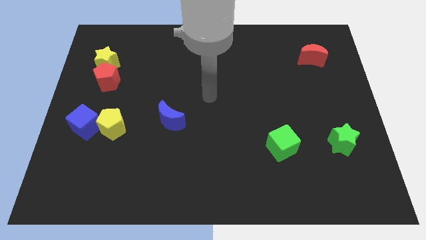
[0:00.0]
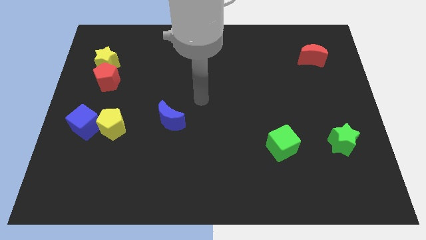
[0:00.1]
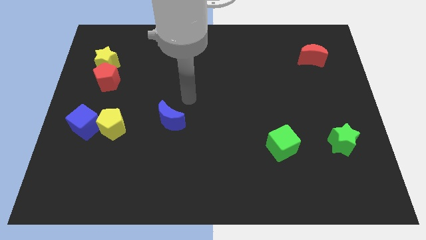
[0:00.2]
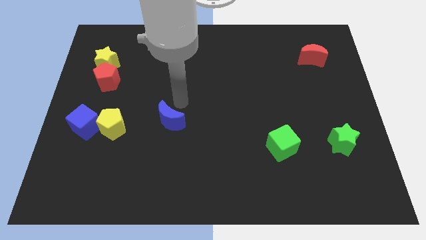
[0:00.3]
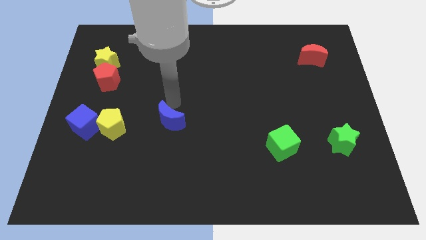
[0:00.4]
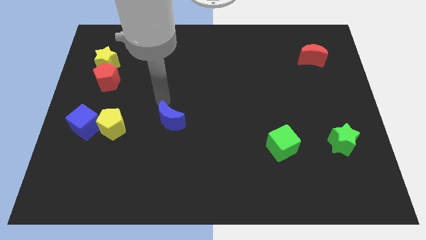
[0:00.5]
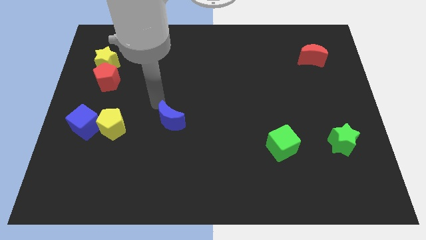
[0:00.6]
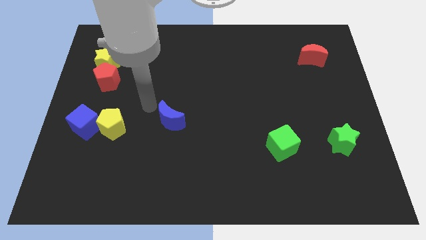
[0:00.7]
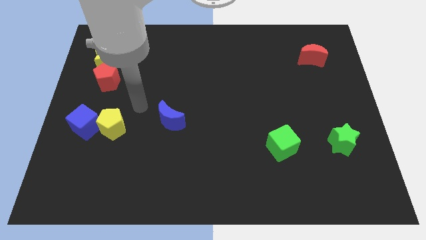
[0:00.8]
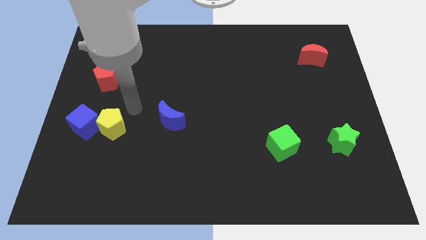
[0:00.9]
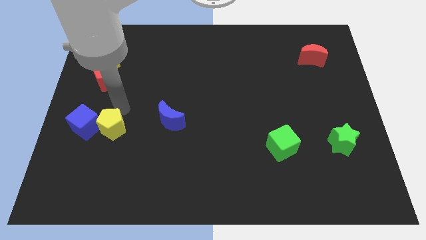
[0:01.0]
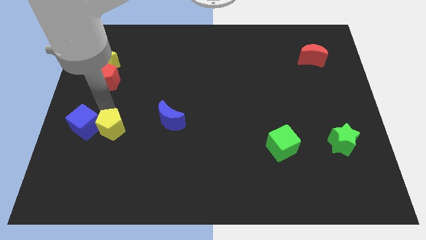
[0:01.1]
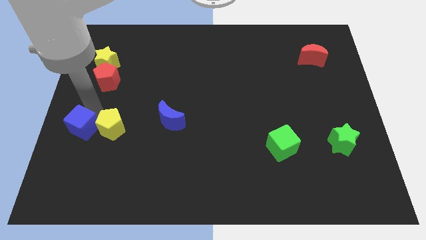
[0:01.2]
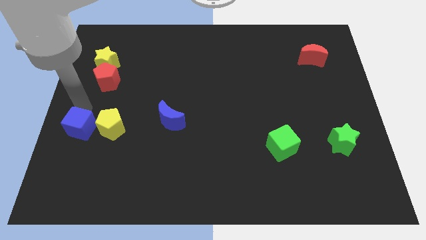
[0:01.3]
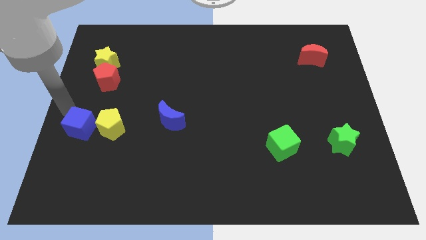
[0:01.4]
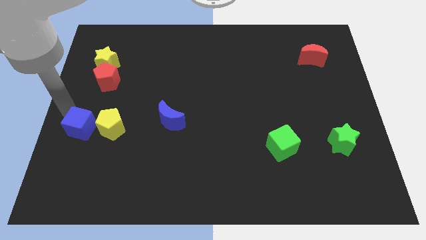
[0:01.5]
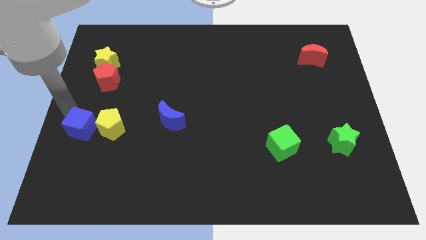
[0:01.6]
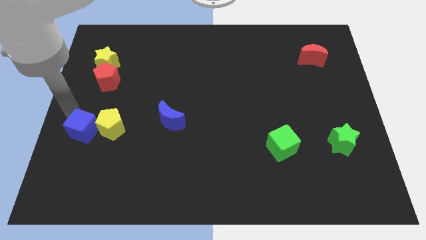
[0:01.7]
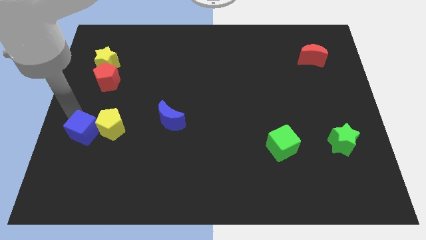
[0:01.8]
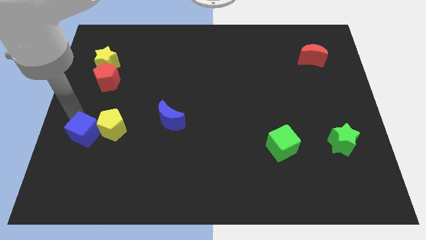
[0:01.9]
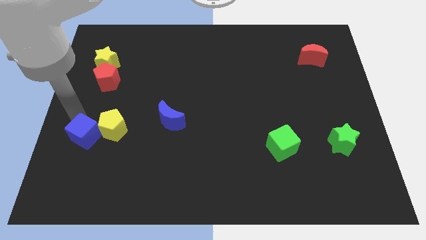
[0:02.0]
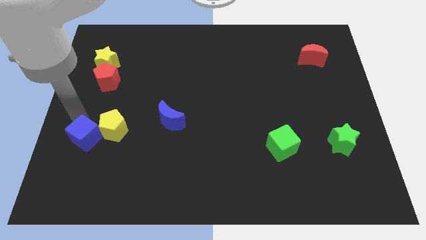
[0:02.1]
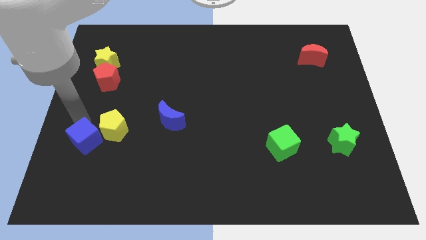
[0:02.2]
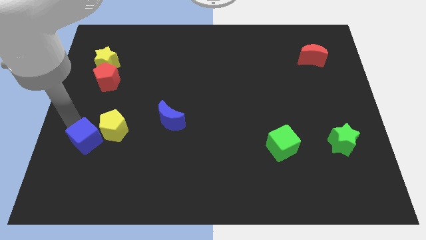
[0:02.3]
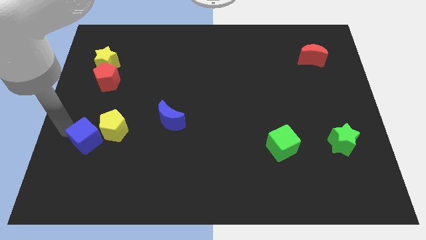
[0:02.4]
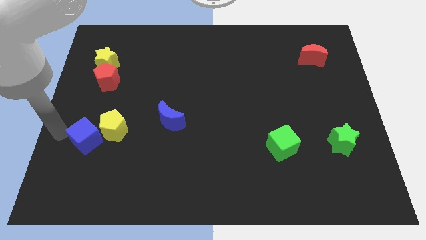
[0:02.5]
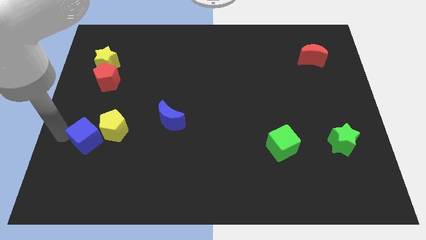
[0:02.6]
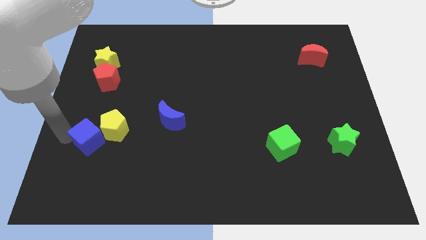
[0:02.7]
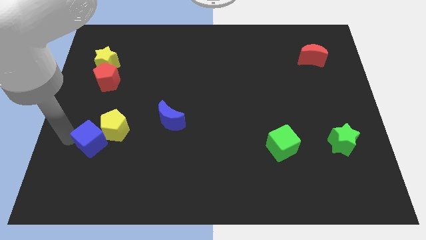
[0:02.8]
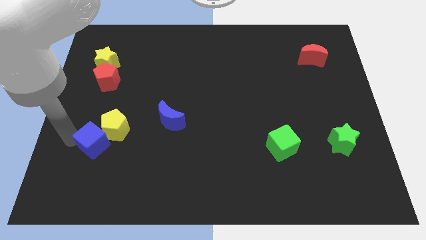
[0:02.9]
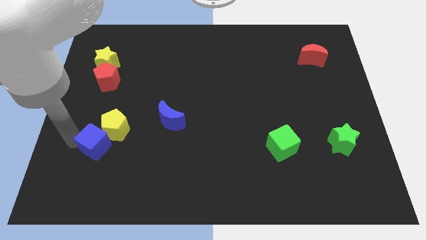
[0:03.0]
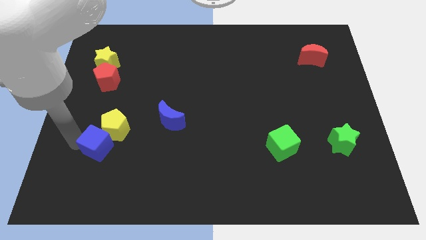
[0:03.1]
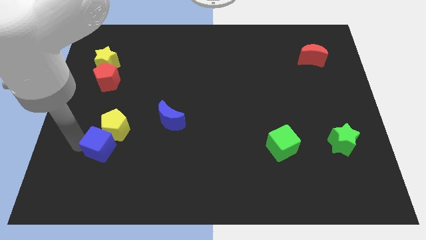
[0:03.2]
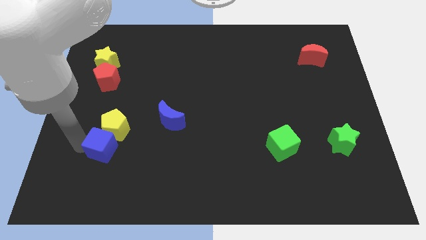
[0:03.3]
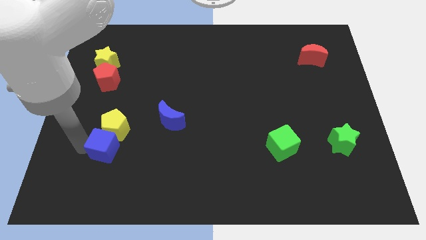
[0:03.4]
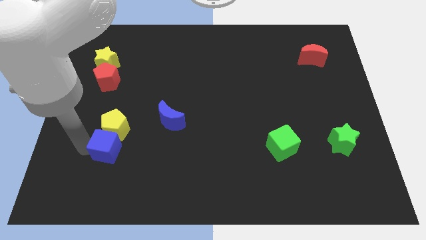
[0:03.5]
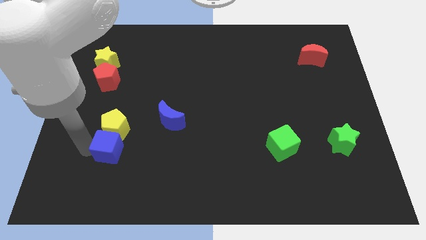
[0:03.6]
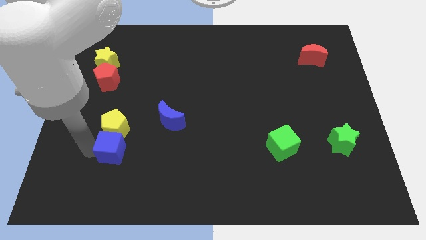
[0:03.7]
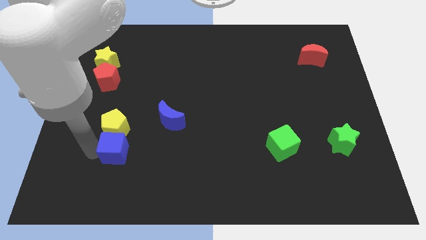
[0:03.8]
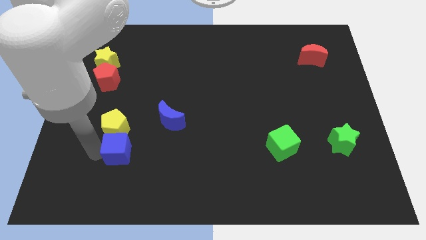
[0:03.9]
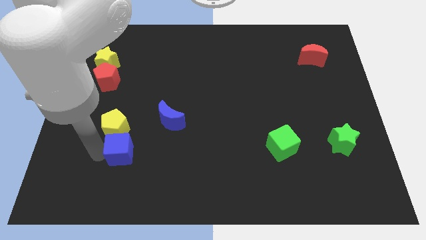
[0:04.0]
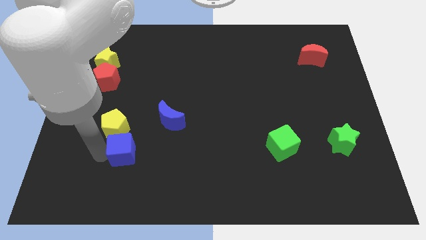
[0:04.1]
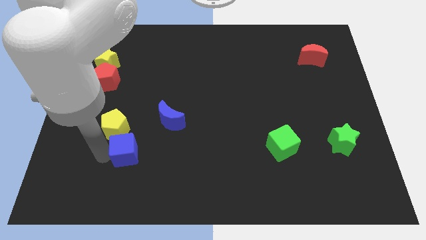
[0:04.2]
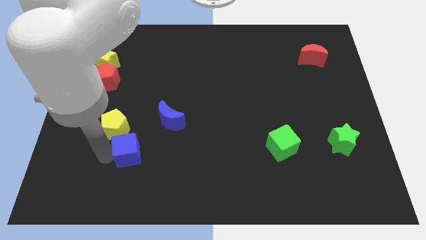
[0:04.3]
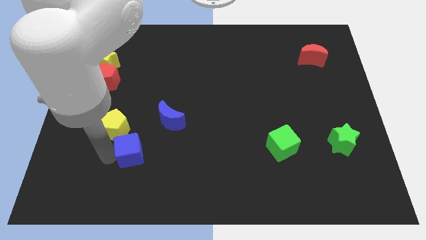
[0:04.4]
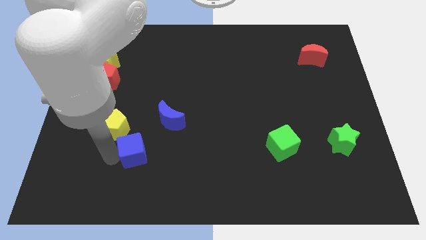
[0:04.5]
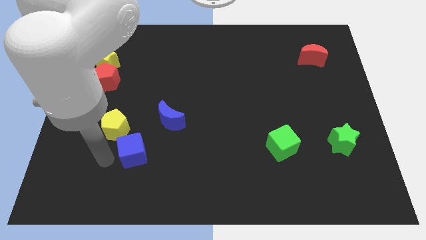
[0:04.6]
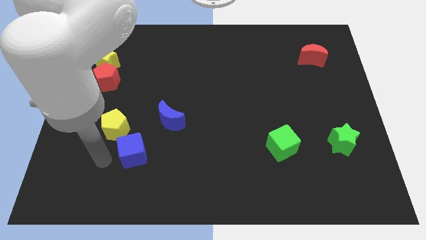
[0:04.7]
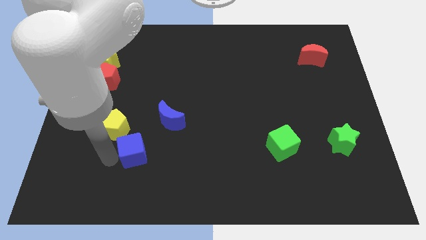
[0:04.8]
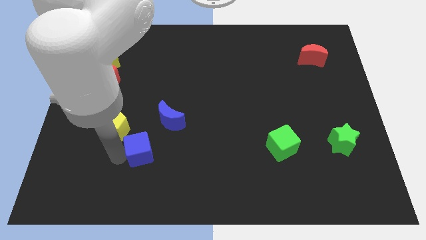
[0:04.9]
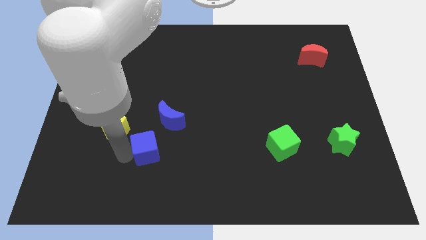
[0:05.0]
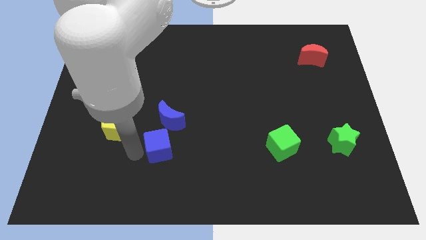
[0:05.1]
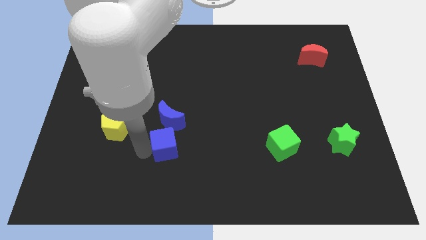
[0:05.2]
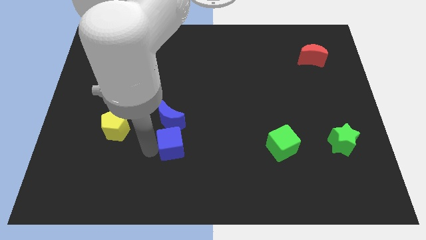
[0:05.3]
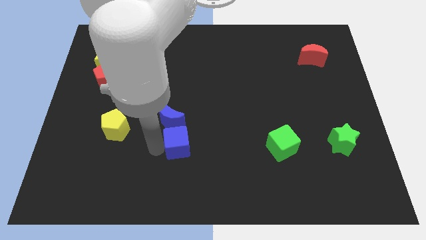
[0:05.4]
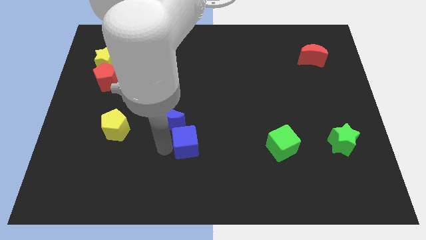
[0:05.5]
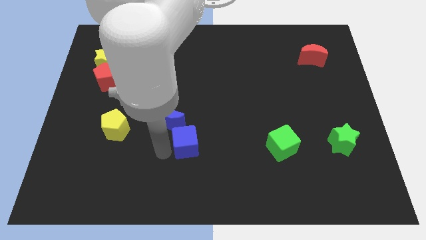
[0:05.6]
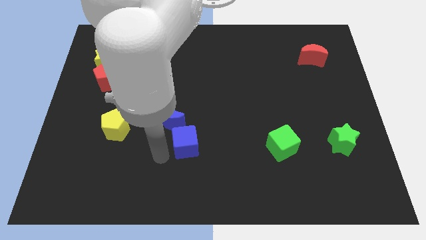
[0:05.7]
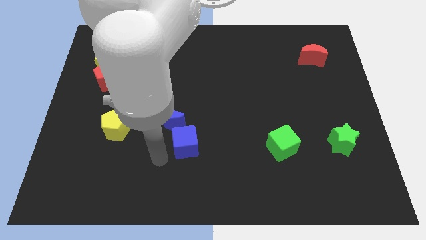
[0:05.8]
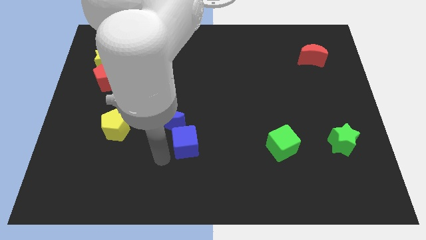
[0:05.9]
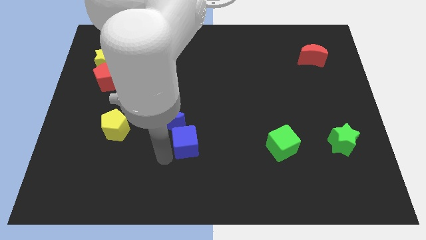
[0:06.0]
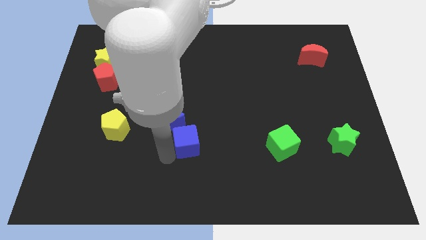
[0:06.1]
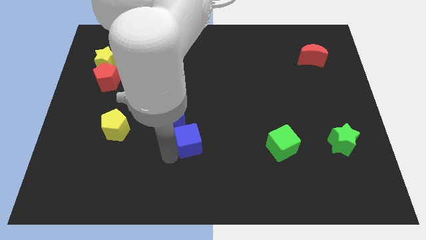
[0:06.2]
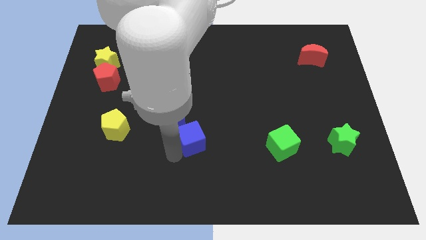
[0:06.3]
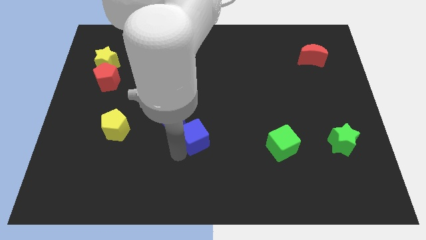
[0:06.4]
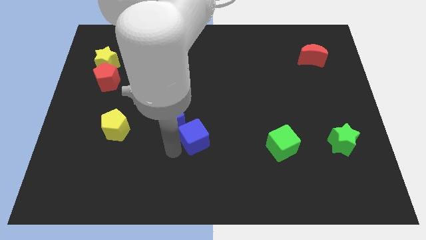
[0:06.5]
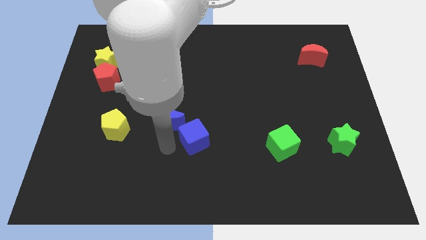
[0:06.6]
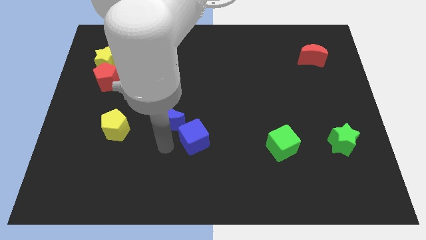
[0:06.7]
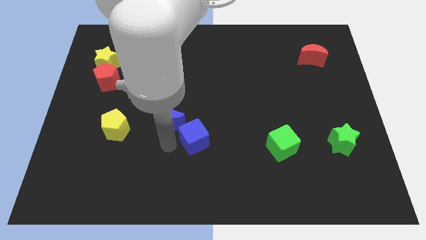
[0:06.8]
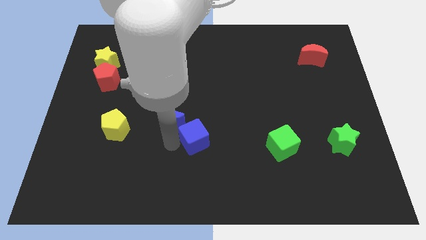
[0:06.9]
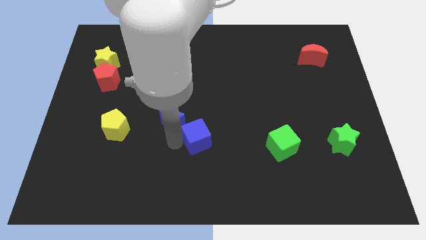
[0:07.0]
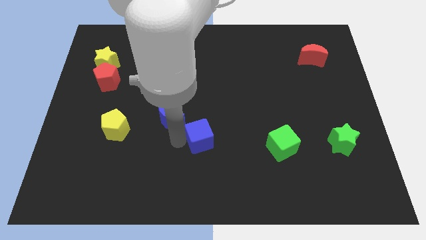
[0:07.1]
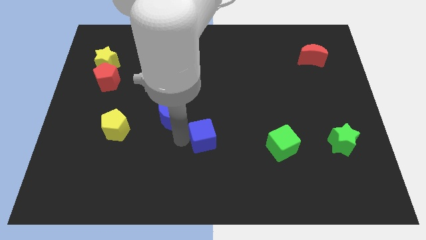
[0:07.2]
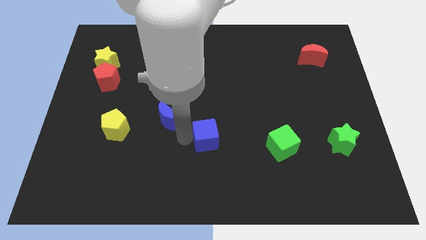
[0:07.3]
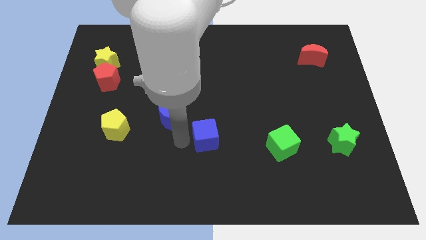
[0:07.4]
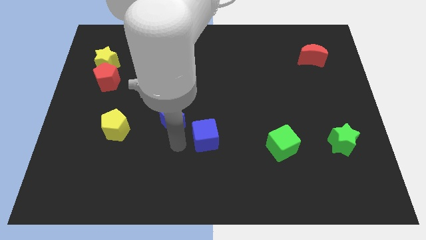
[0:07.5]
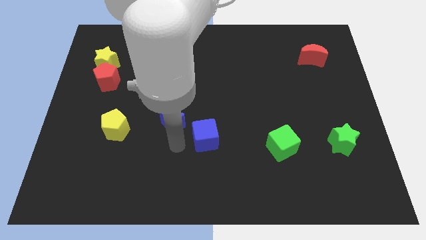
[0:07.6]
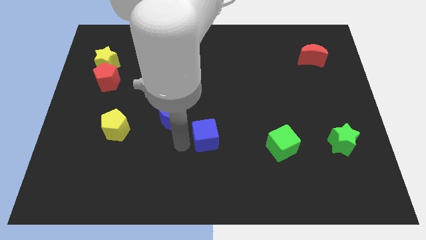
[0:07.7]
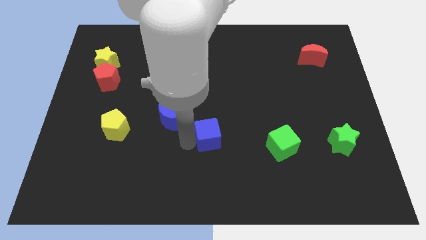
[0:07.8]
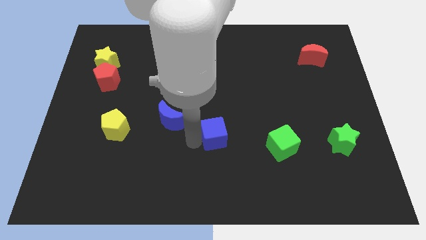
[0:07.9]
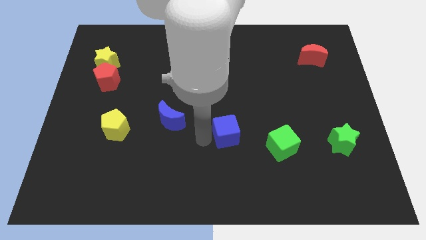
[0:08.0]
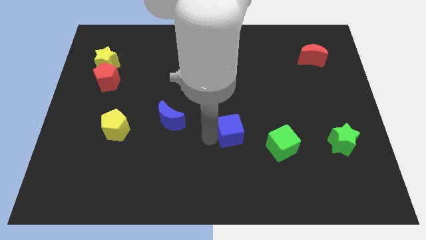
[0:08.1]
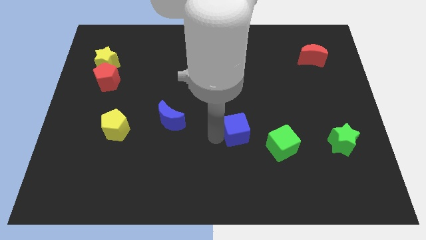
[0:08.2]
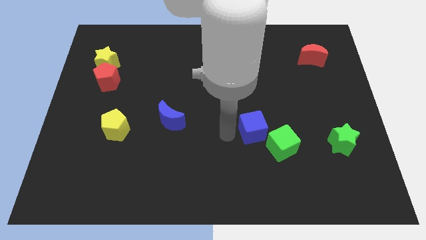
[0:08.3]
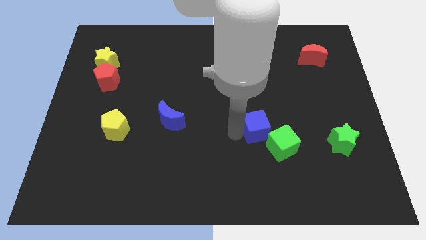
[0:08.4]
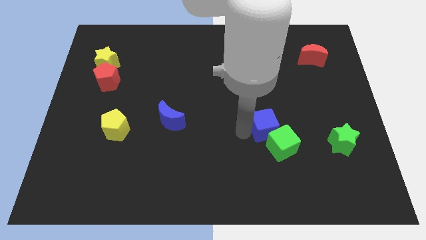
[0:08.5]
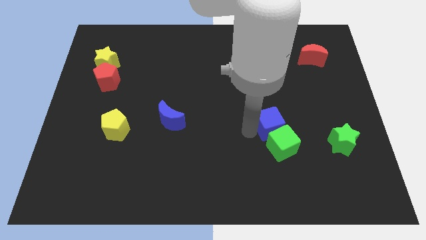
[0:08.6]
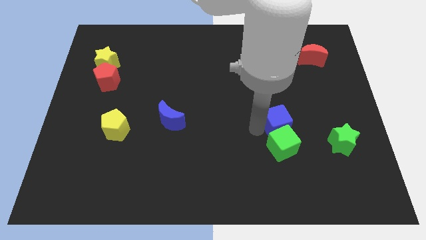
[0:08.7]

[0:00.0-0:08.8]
move the blue cube to the top right of the green cube
